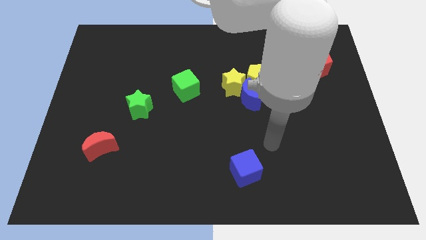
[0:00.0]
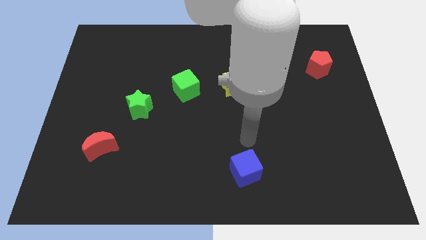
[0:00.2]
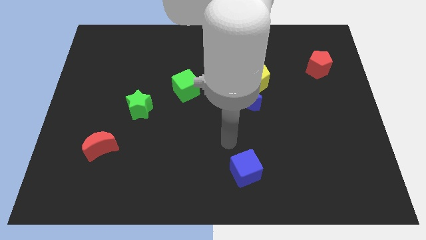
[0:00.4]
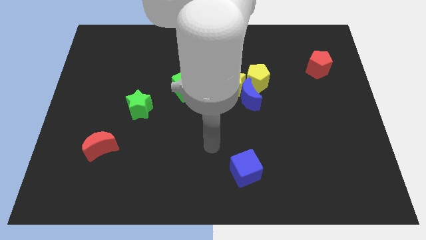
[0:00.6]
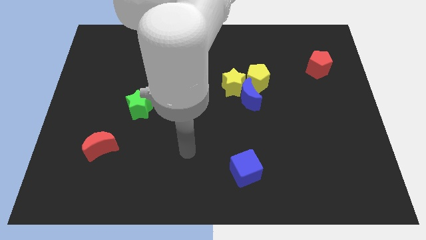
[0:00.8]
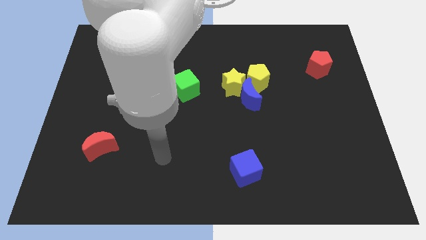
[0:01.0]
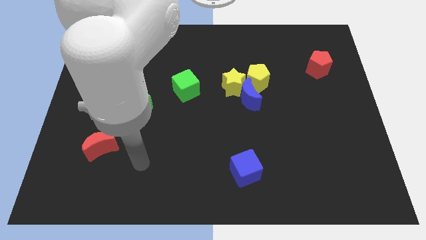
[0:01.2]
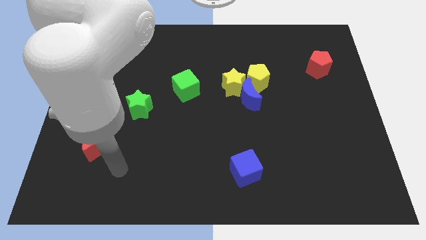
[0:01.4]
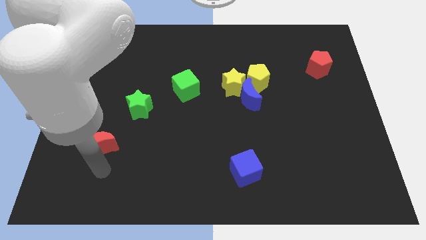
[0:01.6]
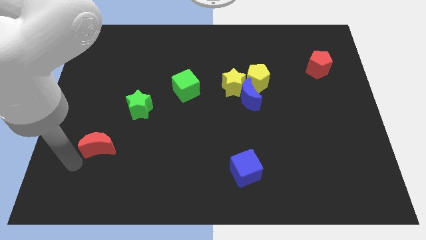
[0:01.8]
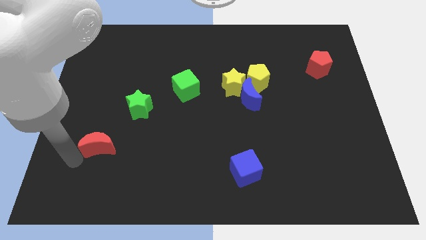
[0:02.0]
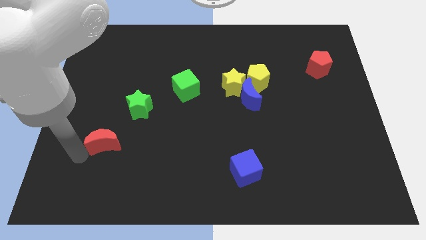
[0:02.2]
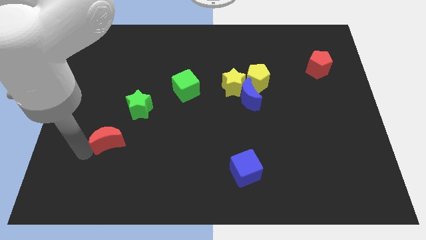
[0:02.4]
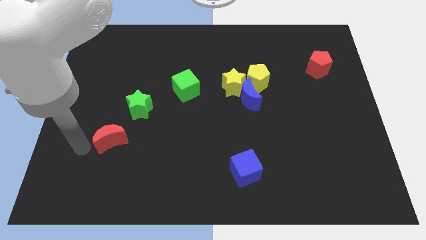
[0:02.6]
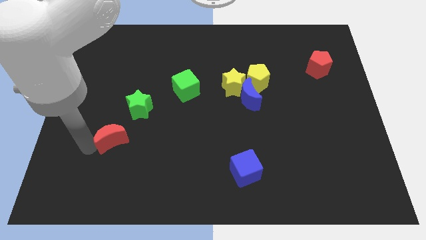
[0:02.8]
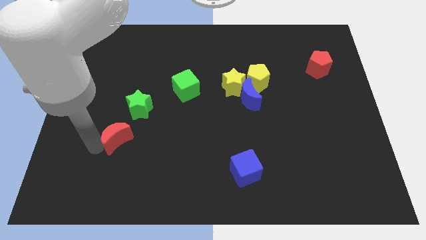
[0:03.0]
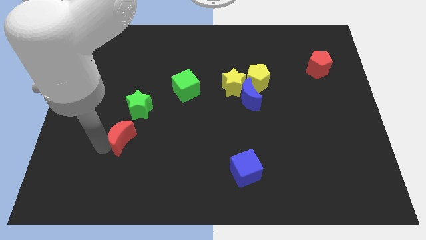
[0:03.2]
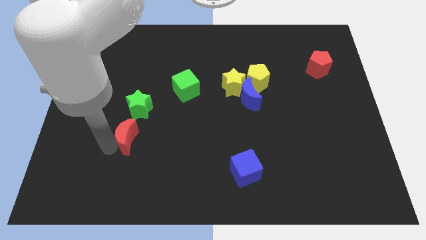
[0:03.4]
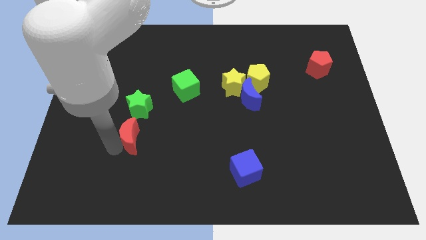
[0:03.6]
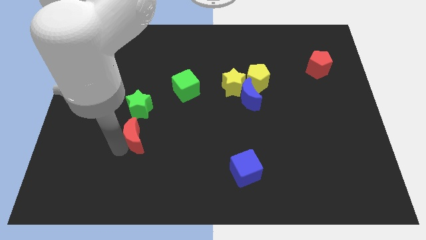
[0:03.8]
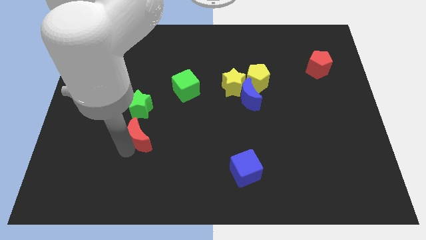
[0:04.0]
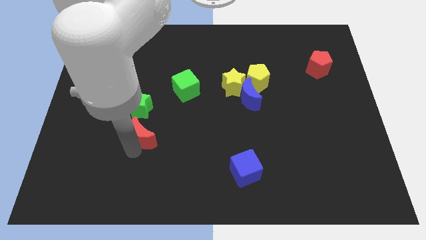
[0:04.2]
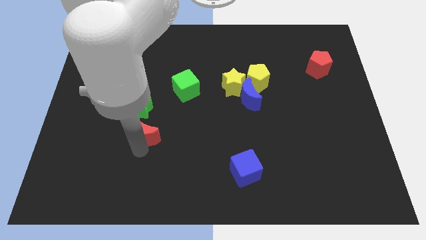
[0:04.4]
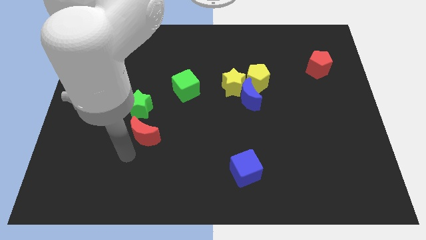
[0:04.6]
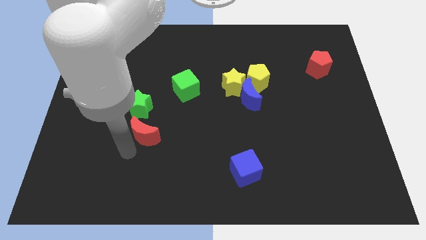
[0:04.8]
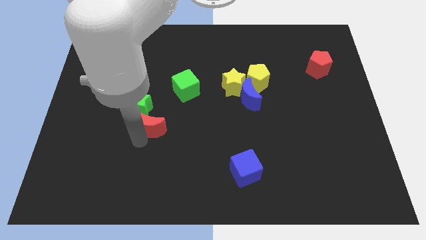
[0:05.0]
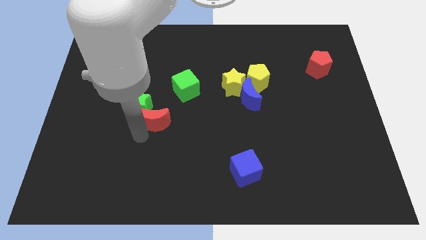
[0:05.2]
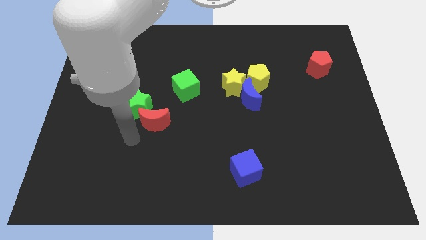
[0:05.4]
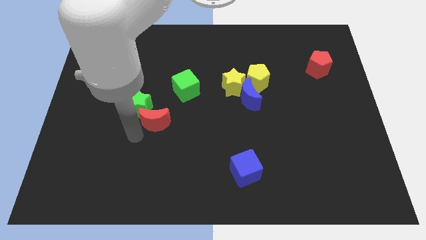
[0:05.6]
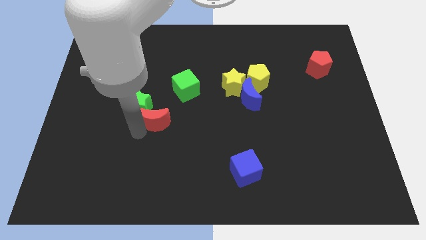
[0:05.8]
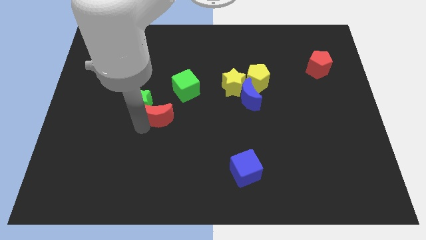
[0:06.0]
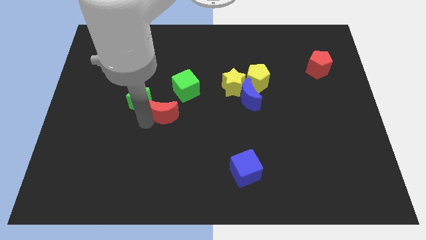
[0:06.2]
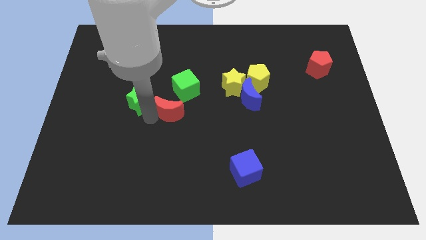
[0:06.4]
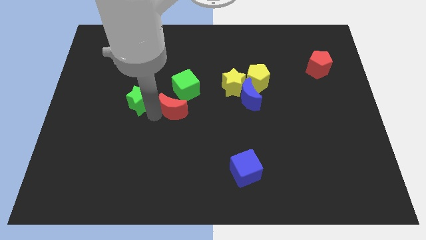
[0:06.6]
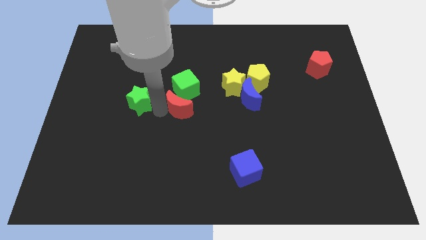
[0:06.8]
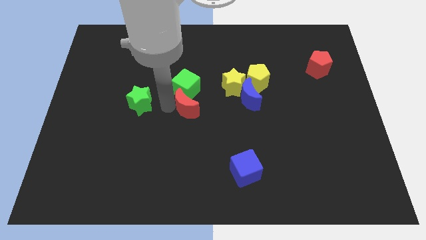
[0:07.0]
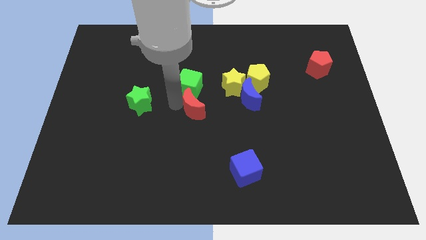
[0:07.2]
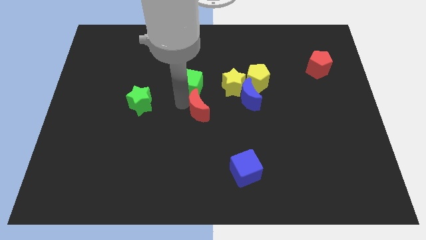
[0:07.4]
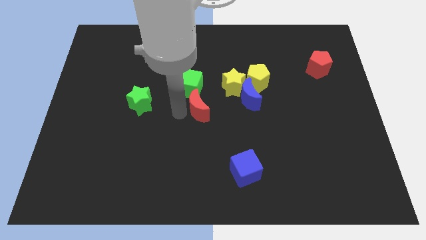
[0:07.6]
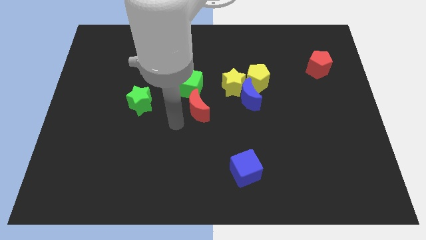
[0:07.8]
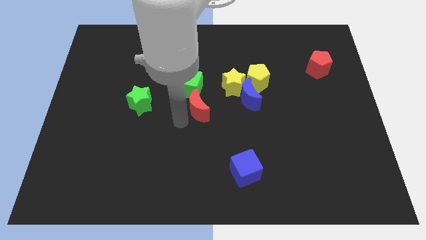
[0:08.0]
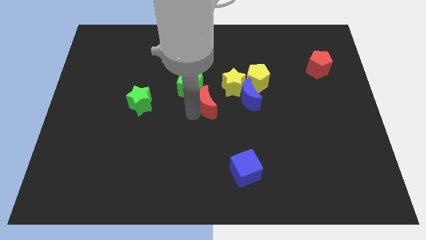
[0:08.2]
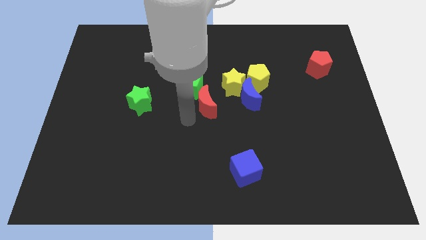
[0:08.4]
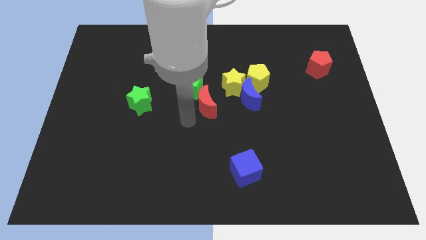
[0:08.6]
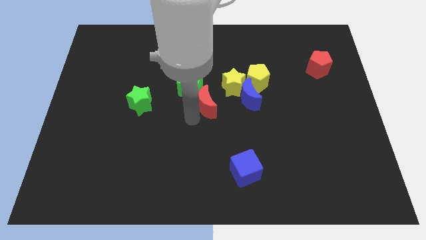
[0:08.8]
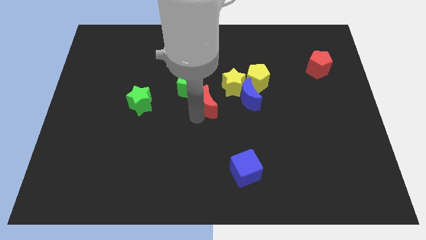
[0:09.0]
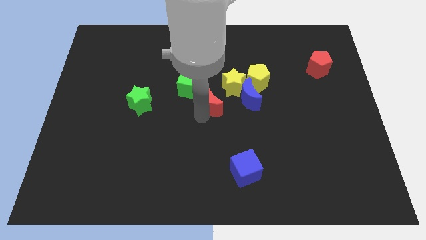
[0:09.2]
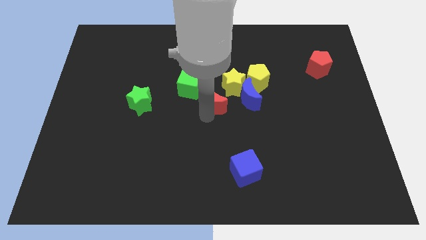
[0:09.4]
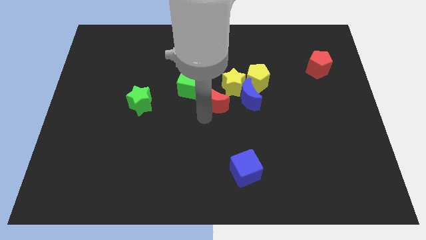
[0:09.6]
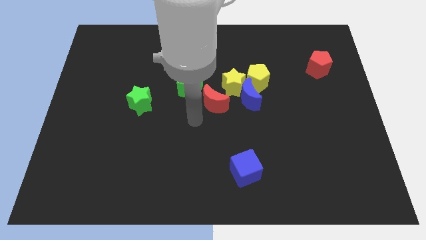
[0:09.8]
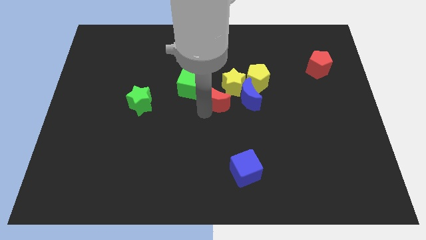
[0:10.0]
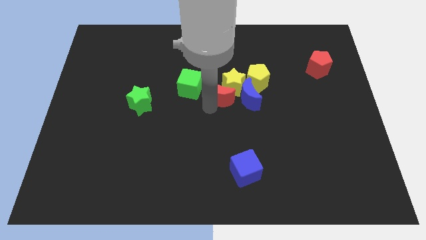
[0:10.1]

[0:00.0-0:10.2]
put the red moon next to the yellow star

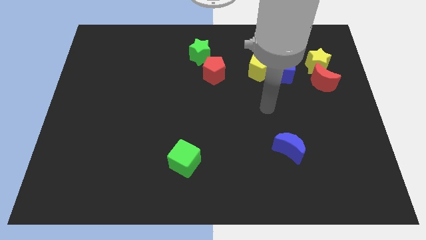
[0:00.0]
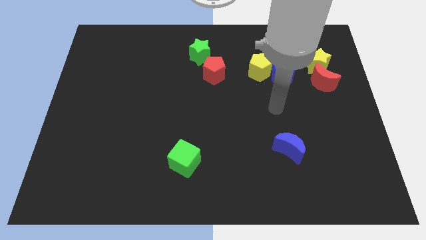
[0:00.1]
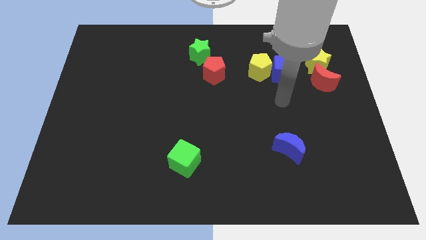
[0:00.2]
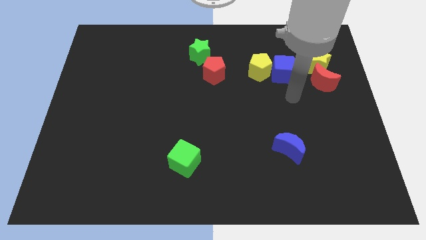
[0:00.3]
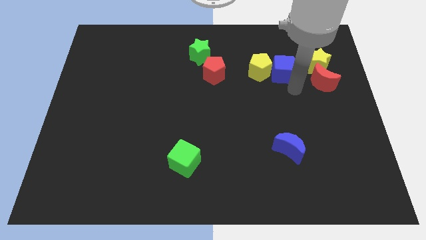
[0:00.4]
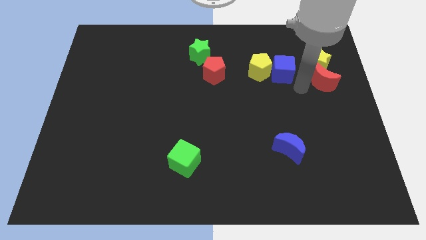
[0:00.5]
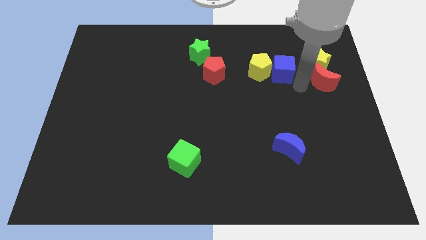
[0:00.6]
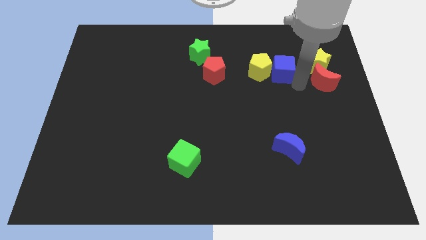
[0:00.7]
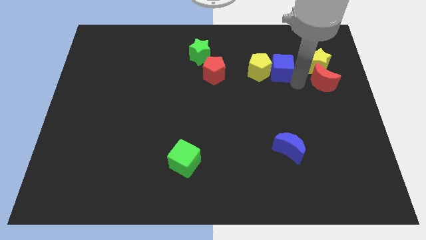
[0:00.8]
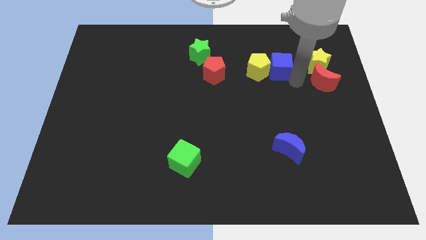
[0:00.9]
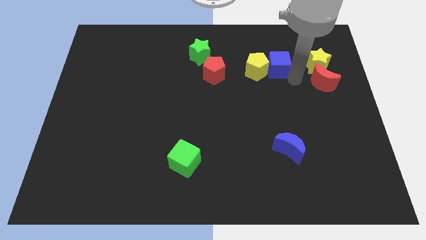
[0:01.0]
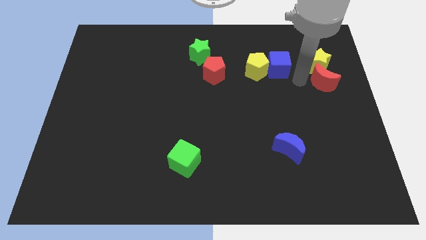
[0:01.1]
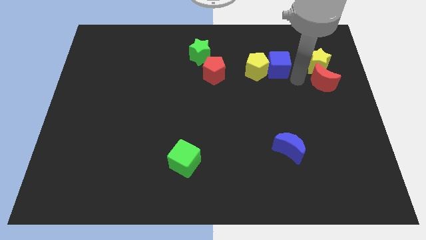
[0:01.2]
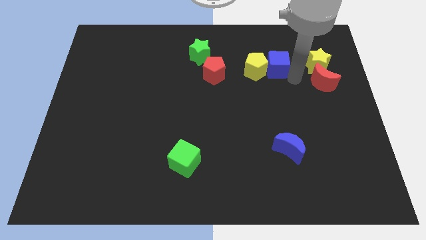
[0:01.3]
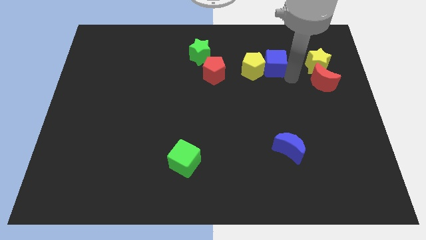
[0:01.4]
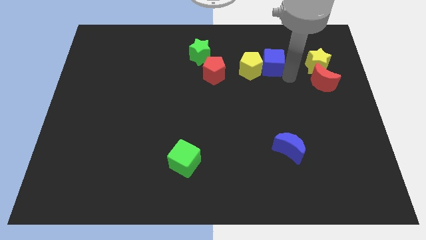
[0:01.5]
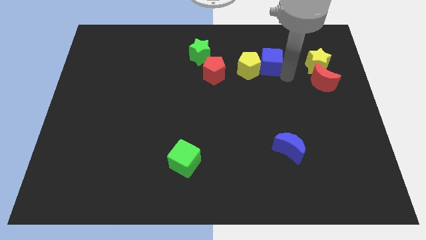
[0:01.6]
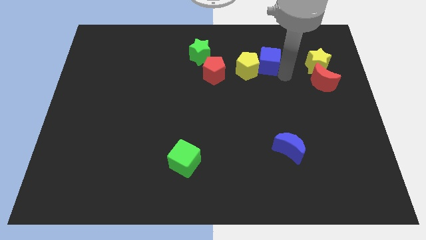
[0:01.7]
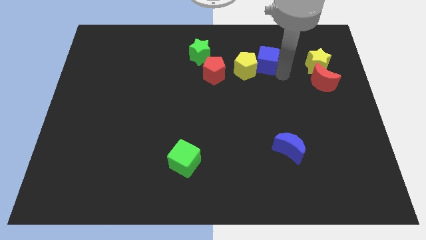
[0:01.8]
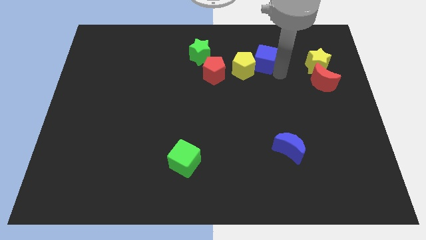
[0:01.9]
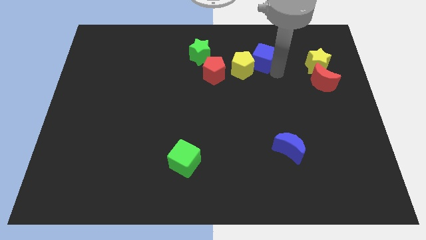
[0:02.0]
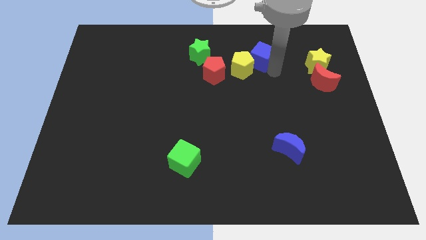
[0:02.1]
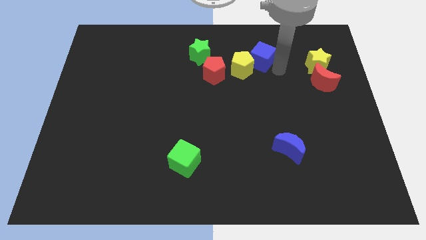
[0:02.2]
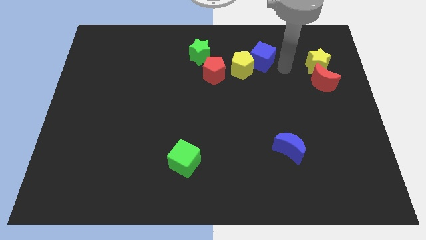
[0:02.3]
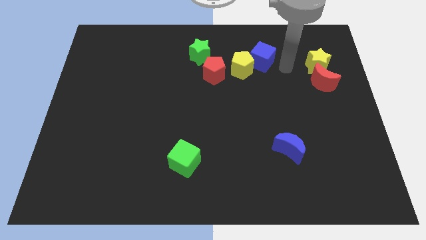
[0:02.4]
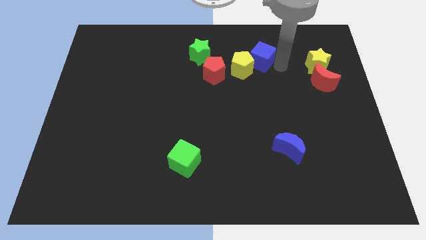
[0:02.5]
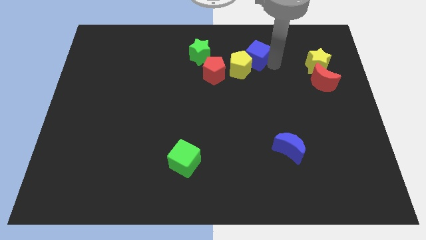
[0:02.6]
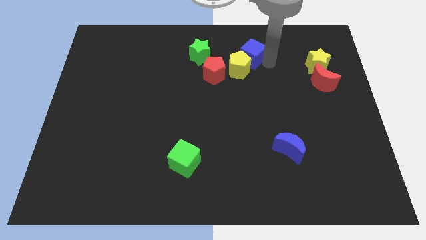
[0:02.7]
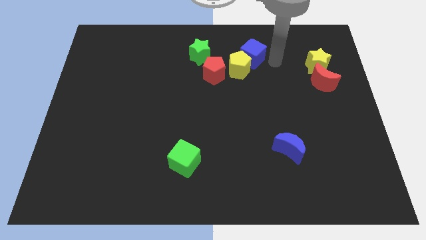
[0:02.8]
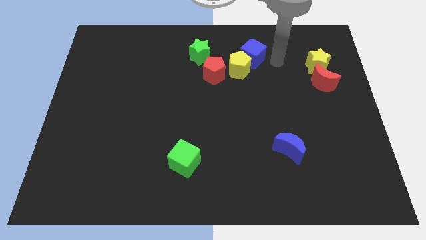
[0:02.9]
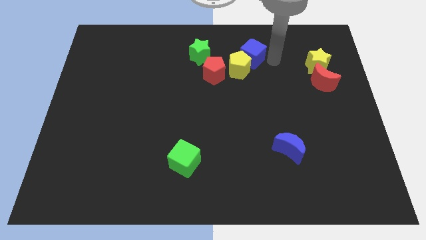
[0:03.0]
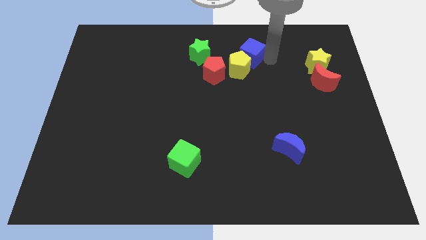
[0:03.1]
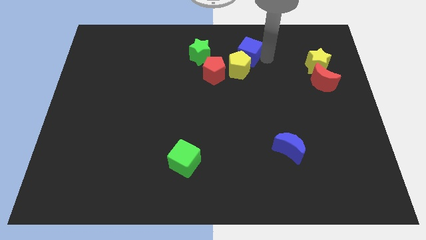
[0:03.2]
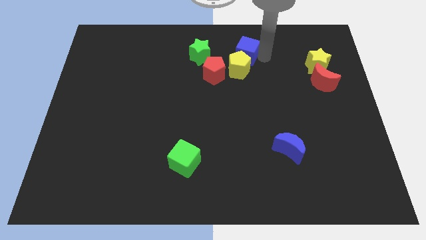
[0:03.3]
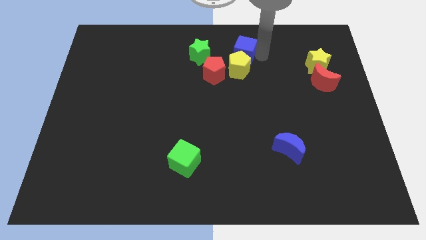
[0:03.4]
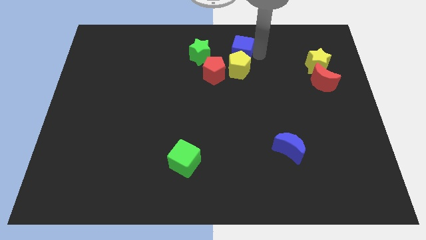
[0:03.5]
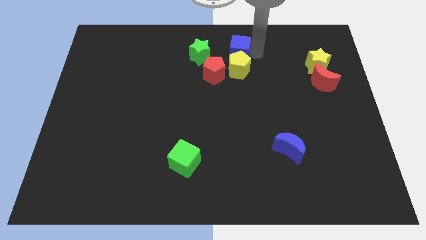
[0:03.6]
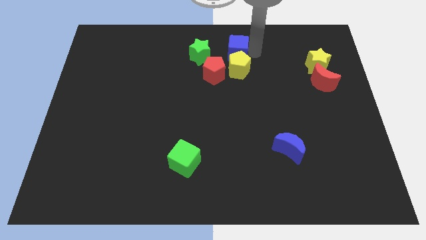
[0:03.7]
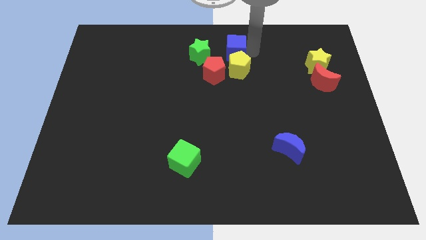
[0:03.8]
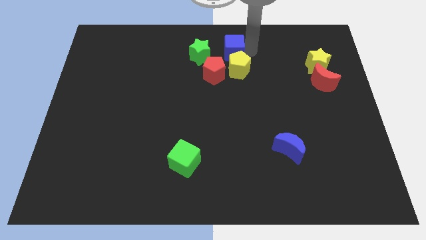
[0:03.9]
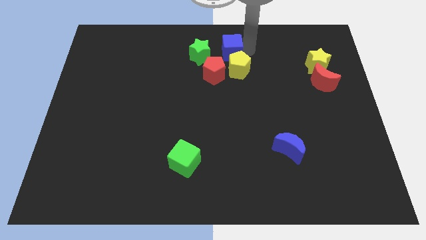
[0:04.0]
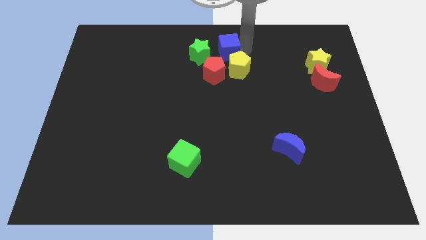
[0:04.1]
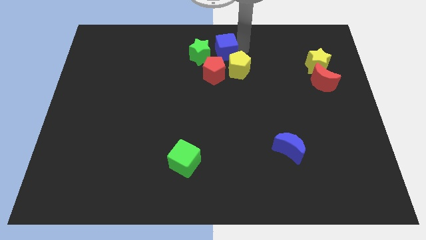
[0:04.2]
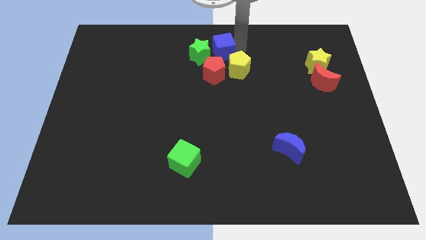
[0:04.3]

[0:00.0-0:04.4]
put the blue cube close to the green star
